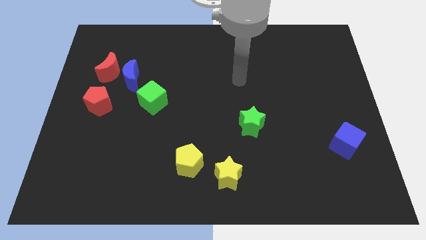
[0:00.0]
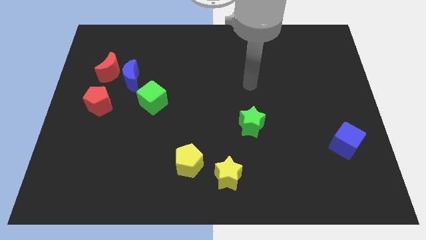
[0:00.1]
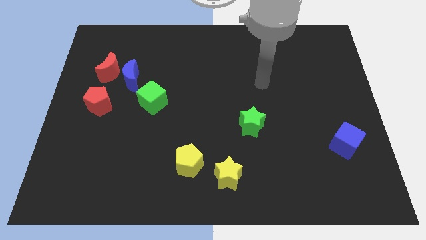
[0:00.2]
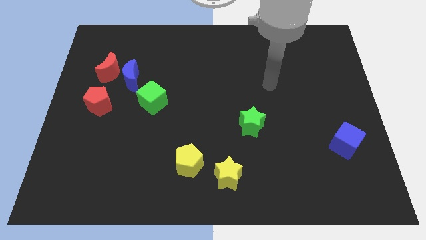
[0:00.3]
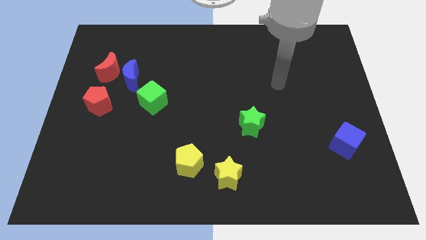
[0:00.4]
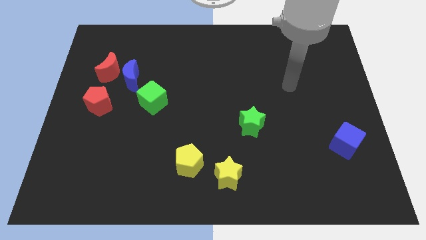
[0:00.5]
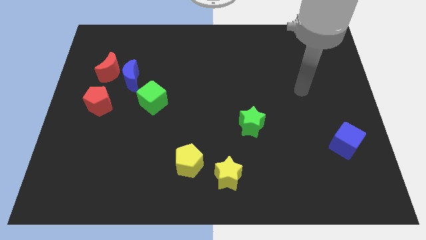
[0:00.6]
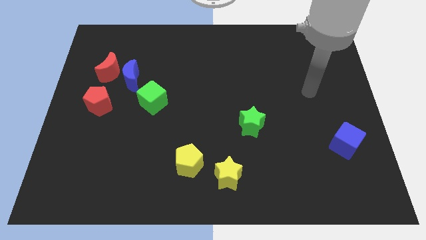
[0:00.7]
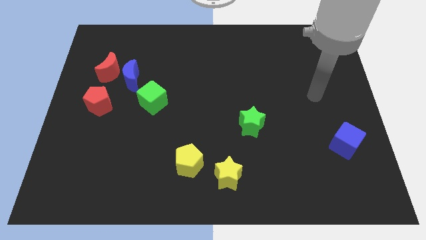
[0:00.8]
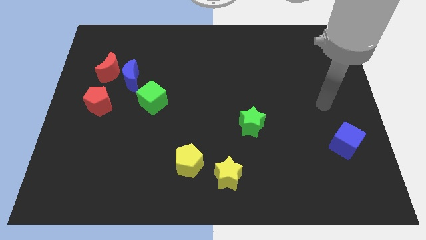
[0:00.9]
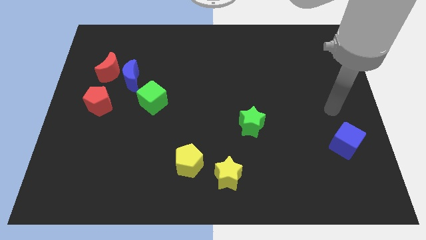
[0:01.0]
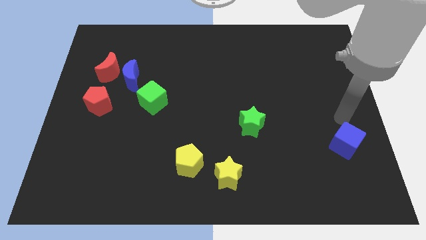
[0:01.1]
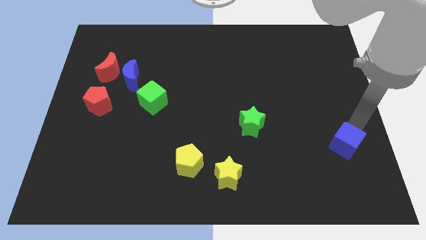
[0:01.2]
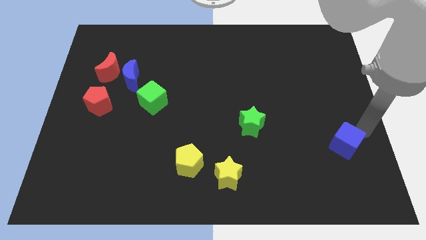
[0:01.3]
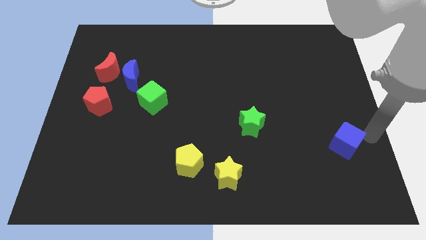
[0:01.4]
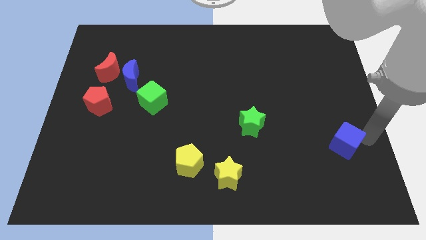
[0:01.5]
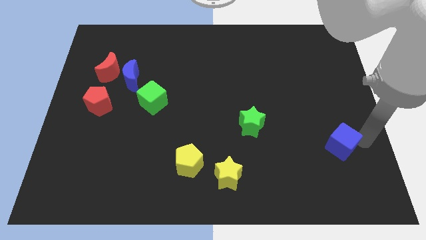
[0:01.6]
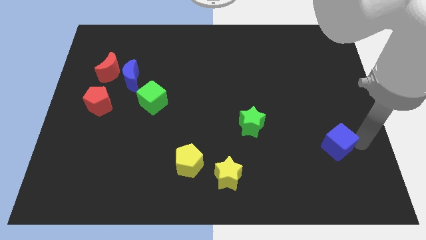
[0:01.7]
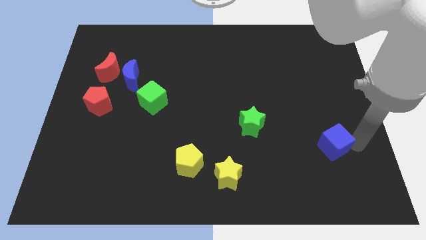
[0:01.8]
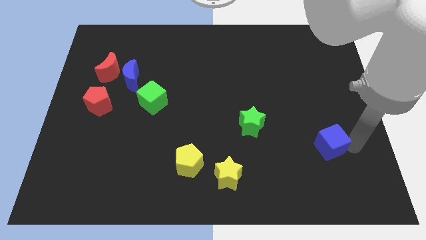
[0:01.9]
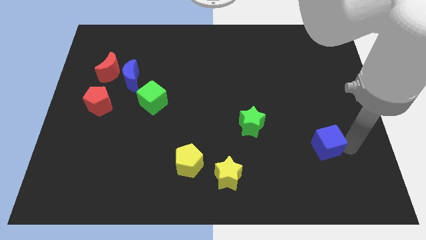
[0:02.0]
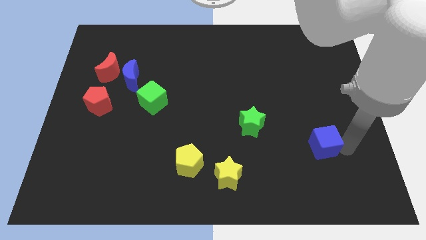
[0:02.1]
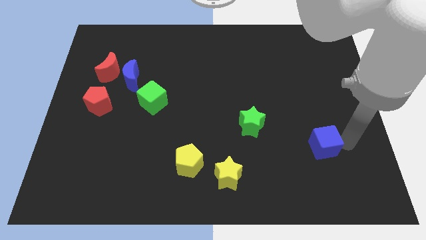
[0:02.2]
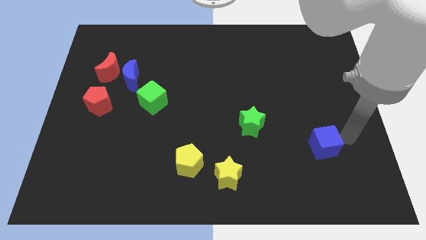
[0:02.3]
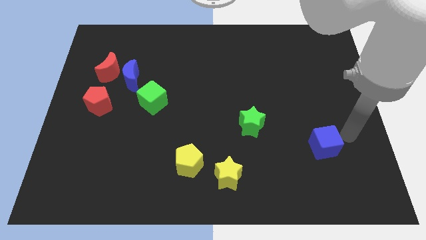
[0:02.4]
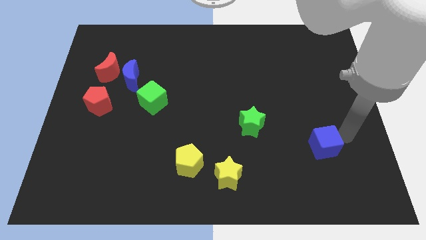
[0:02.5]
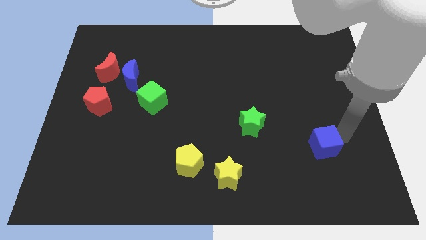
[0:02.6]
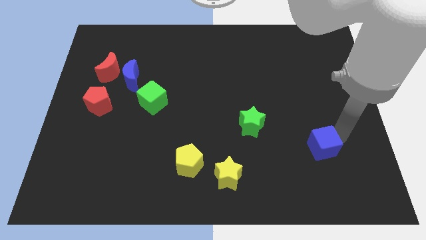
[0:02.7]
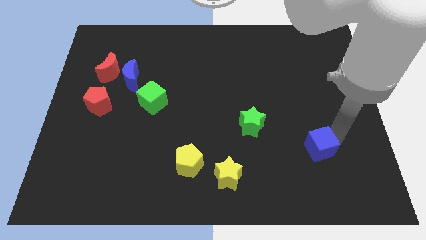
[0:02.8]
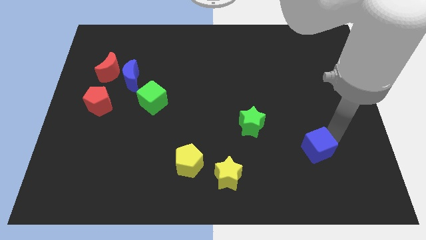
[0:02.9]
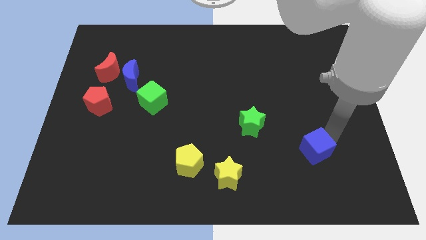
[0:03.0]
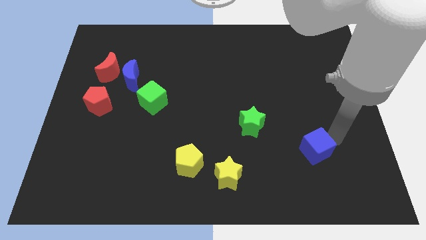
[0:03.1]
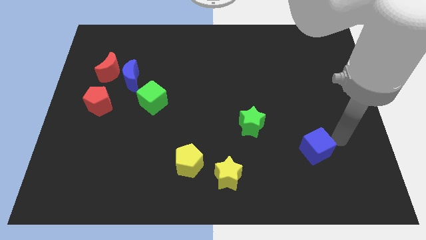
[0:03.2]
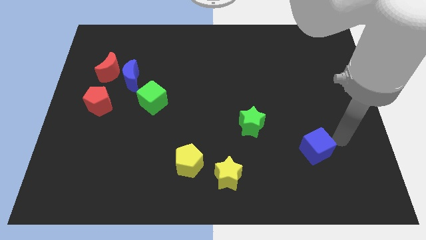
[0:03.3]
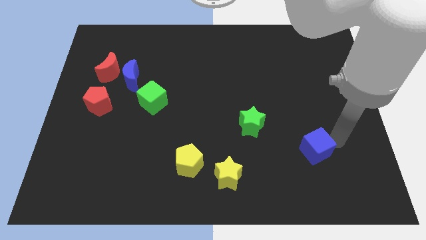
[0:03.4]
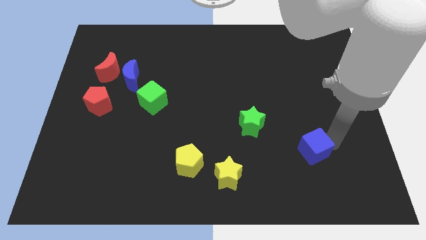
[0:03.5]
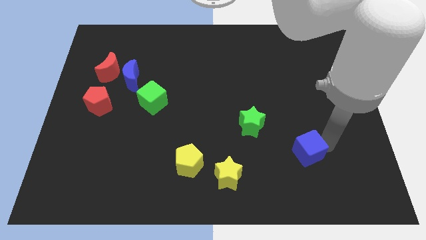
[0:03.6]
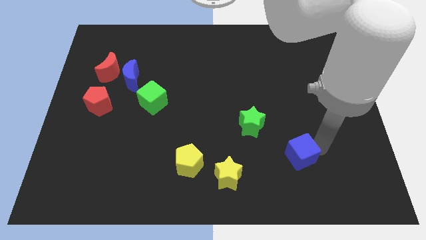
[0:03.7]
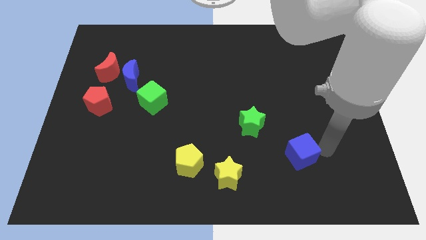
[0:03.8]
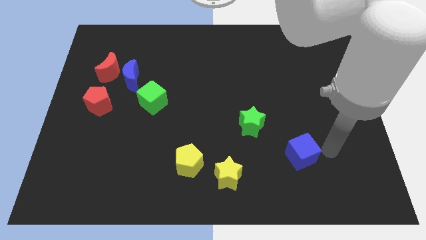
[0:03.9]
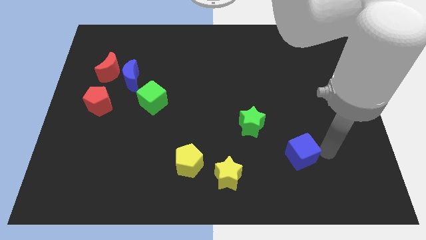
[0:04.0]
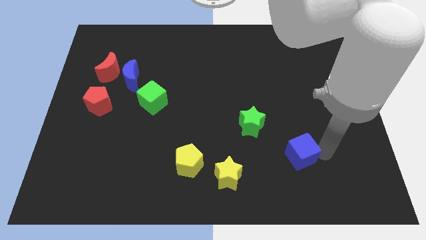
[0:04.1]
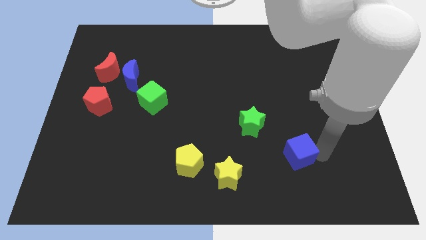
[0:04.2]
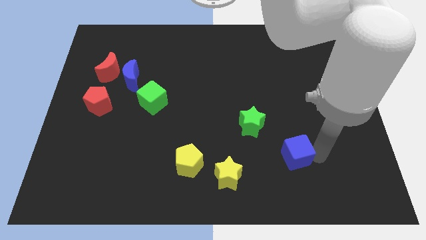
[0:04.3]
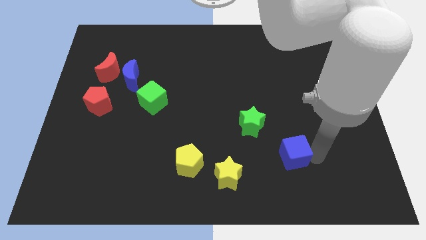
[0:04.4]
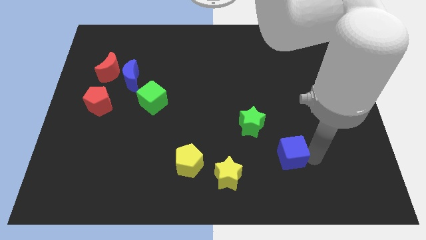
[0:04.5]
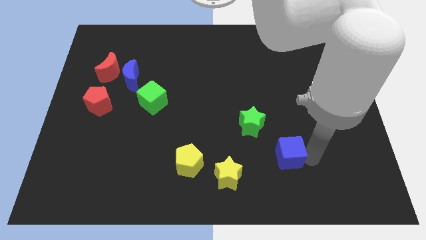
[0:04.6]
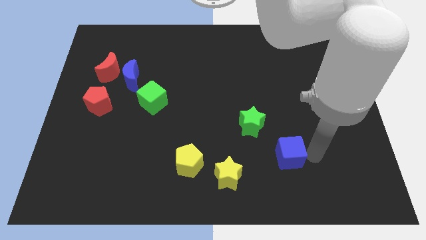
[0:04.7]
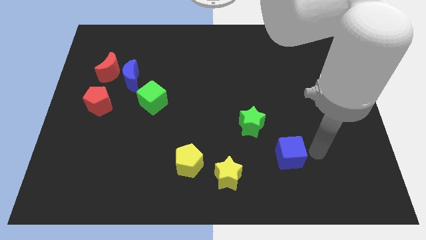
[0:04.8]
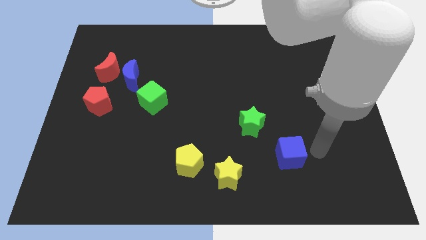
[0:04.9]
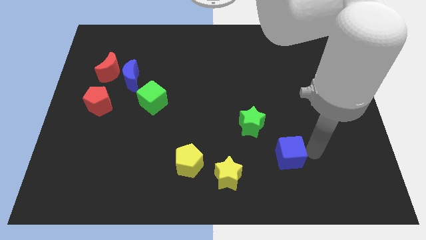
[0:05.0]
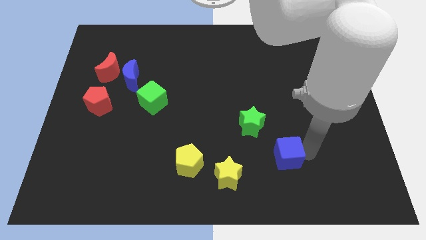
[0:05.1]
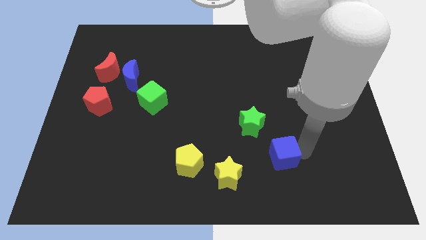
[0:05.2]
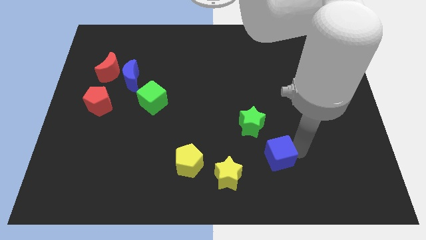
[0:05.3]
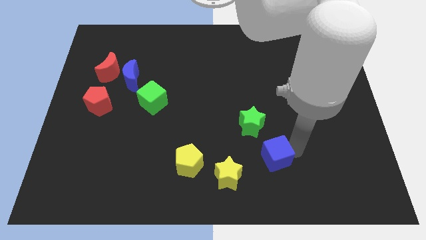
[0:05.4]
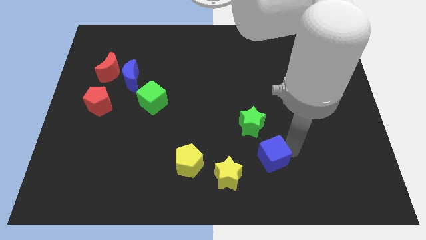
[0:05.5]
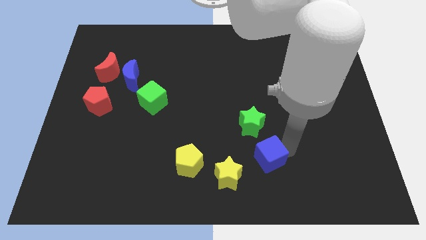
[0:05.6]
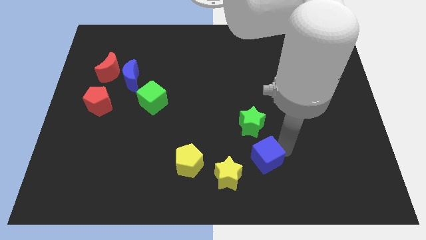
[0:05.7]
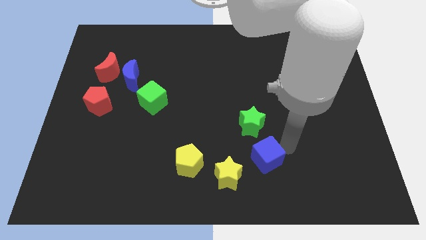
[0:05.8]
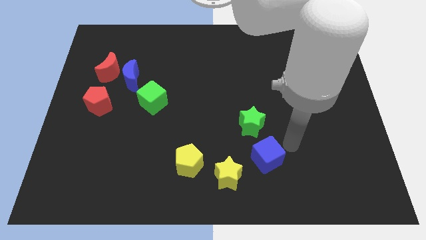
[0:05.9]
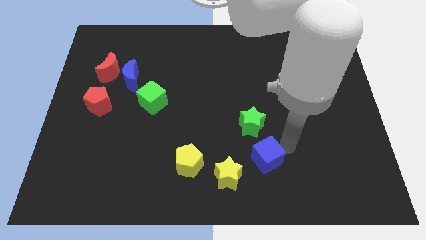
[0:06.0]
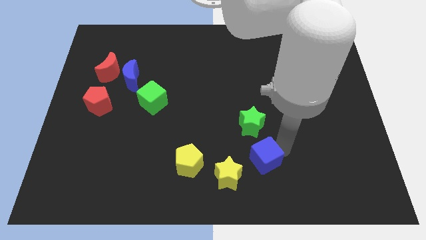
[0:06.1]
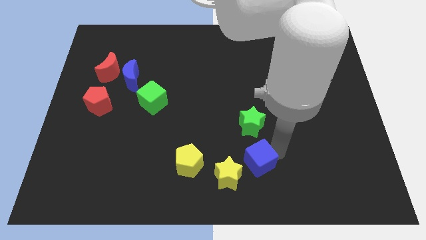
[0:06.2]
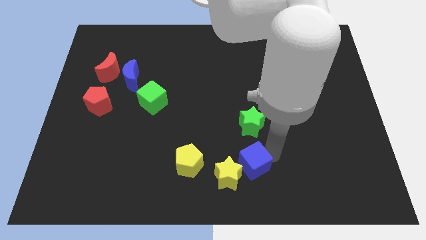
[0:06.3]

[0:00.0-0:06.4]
push the blue cube towards the yellow star
